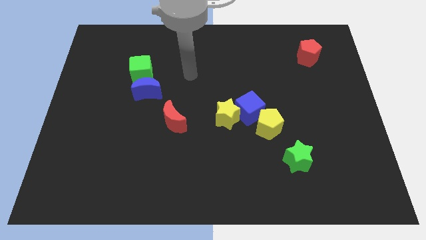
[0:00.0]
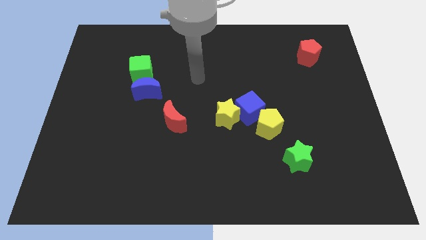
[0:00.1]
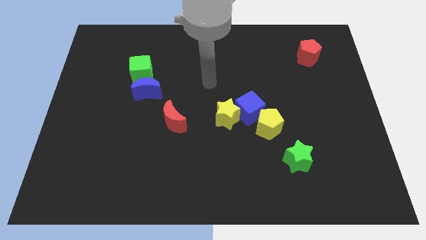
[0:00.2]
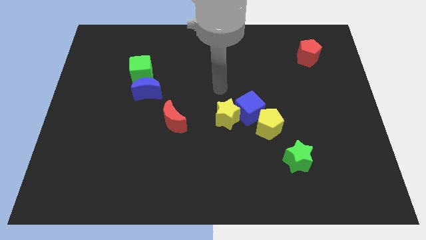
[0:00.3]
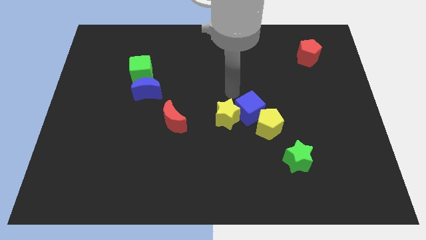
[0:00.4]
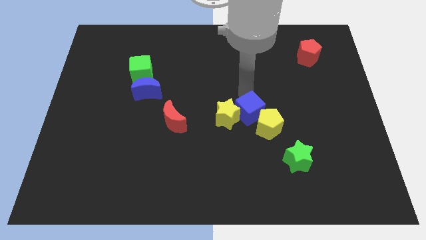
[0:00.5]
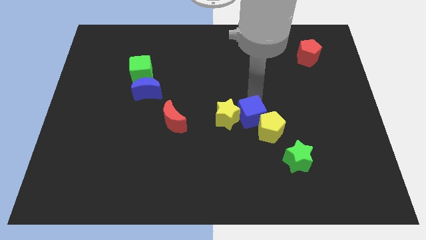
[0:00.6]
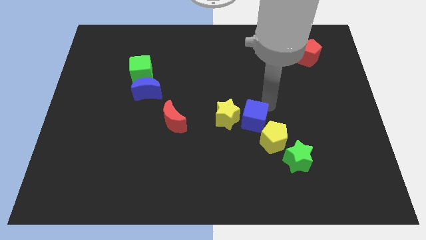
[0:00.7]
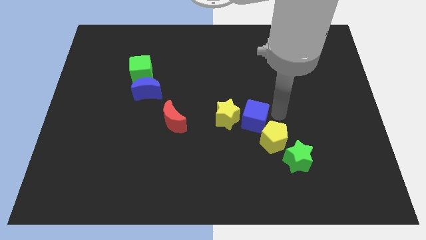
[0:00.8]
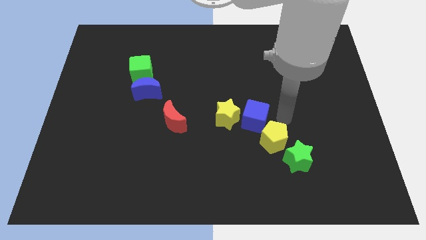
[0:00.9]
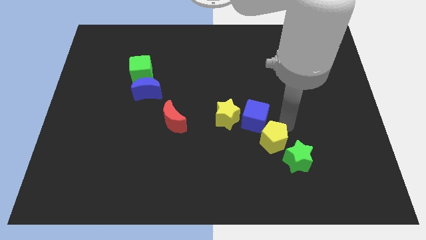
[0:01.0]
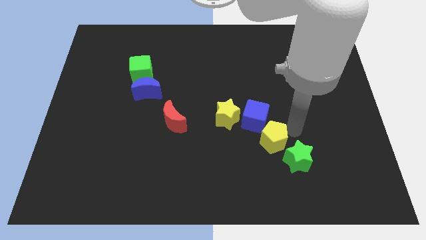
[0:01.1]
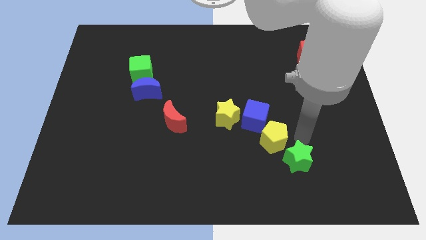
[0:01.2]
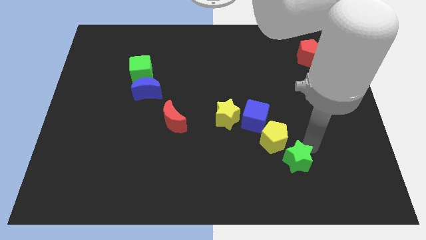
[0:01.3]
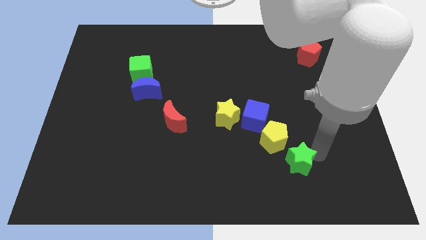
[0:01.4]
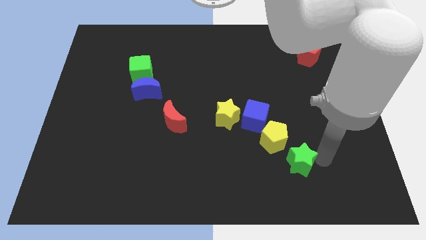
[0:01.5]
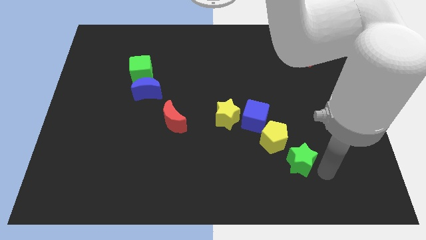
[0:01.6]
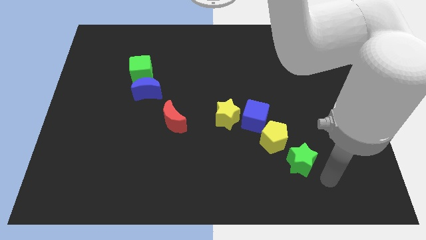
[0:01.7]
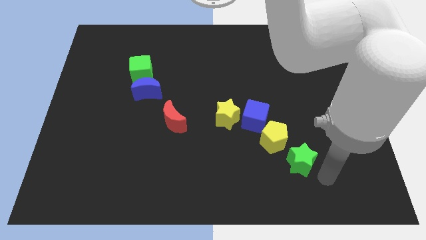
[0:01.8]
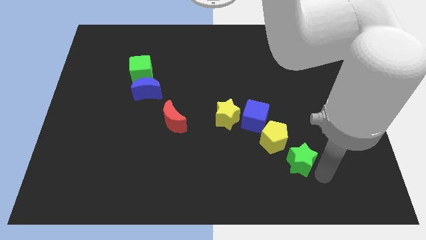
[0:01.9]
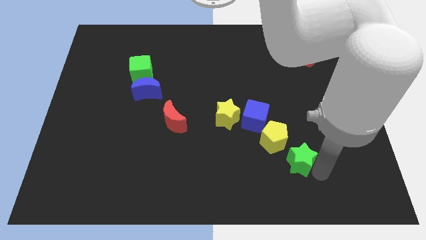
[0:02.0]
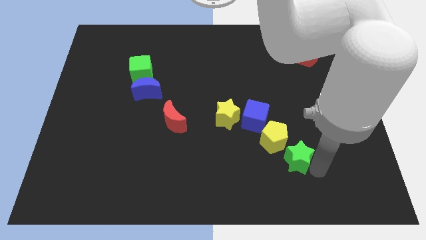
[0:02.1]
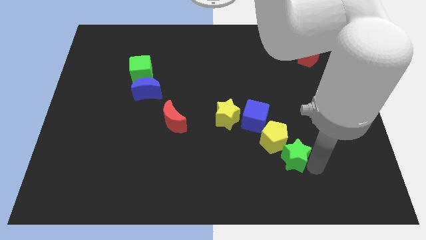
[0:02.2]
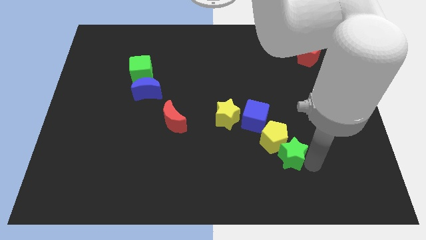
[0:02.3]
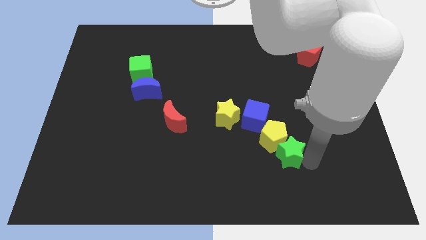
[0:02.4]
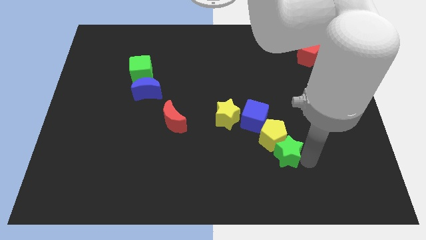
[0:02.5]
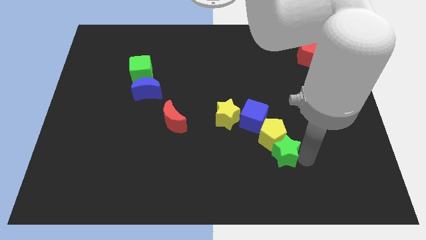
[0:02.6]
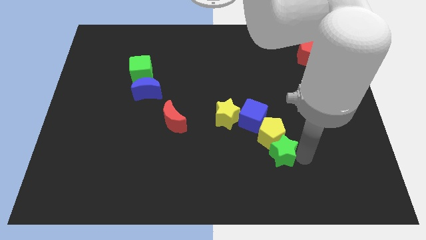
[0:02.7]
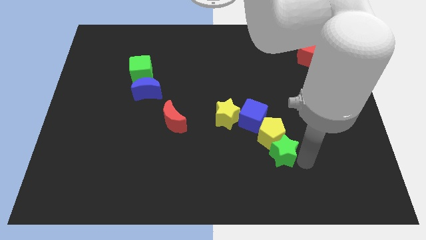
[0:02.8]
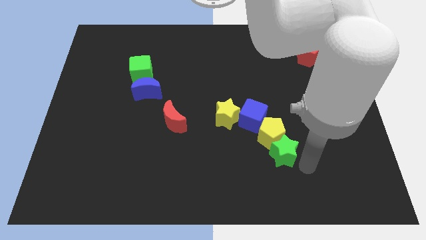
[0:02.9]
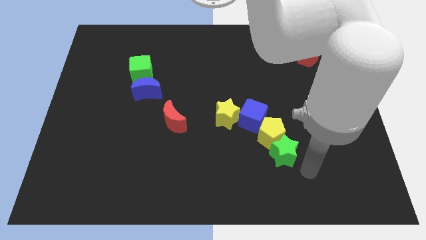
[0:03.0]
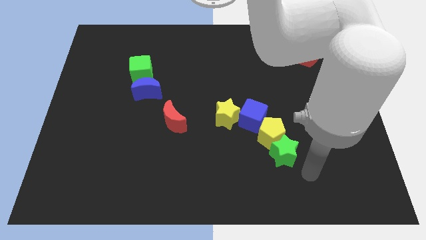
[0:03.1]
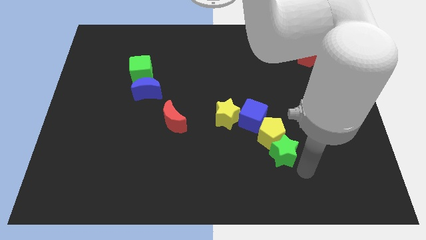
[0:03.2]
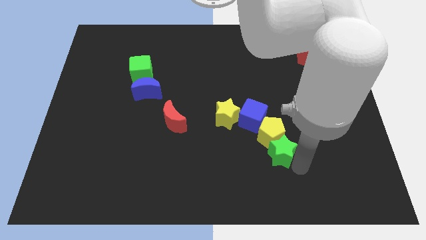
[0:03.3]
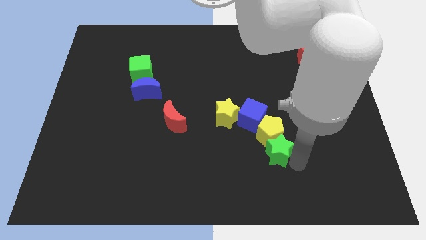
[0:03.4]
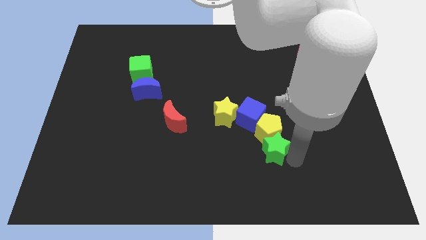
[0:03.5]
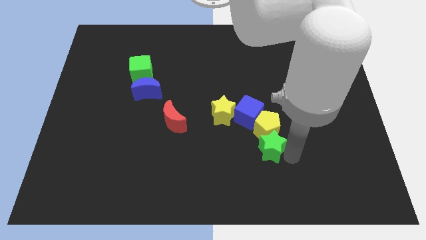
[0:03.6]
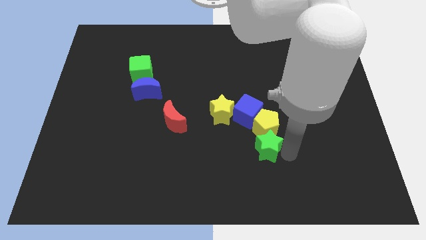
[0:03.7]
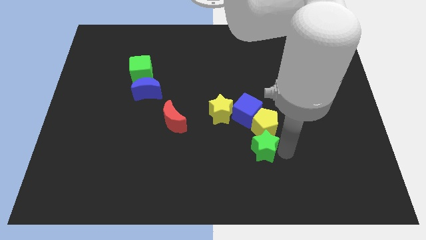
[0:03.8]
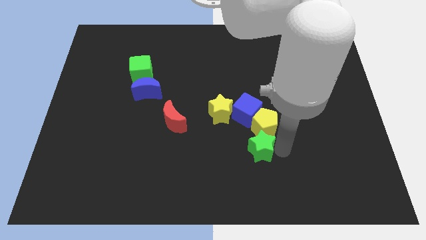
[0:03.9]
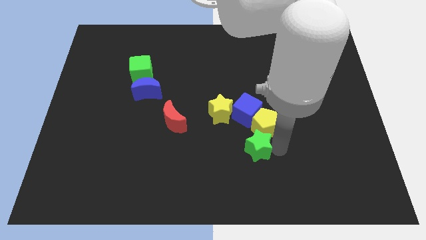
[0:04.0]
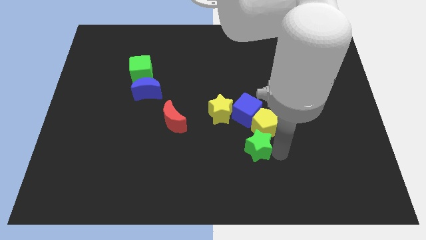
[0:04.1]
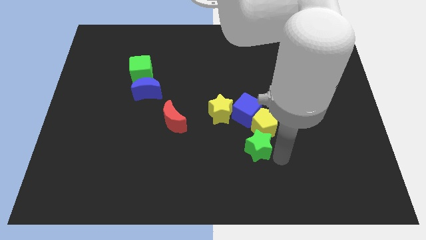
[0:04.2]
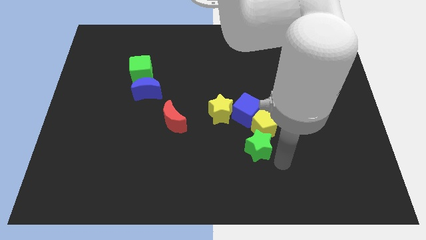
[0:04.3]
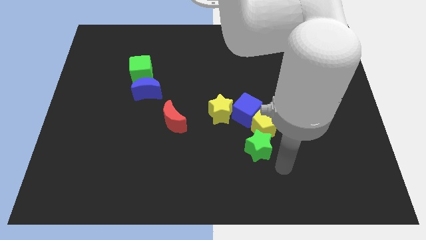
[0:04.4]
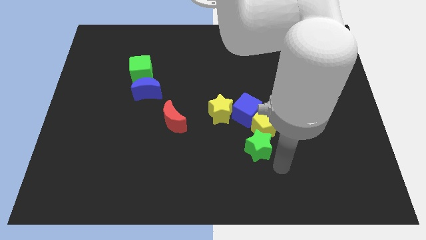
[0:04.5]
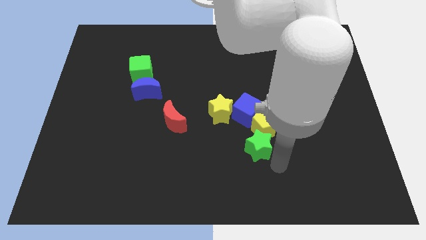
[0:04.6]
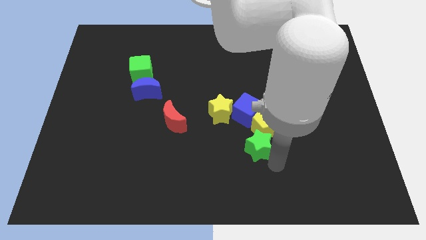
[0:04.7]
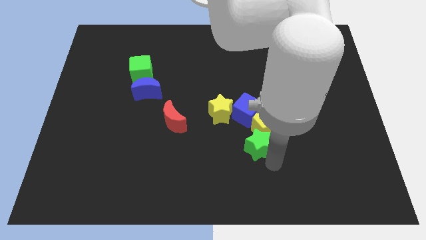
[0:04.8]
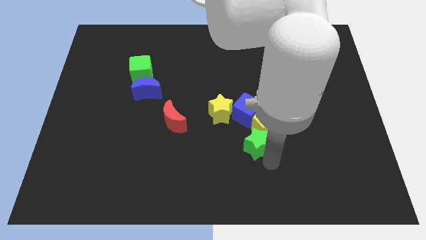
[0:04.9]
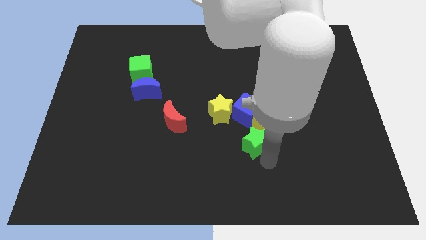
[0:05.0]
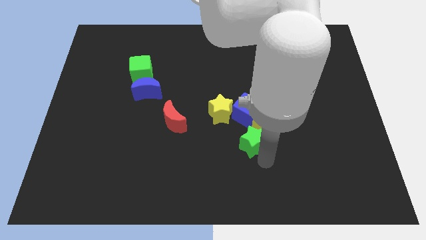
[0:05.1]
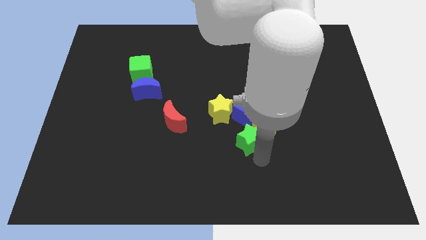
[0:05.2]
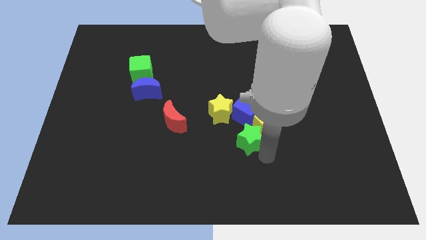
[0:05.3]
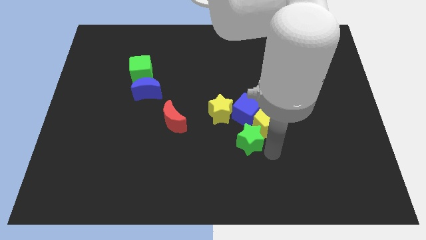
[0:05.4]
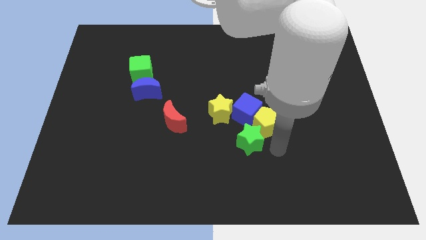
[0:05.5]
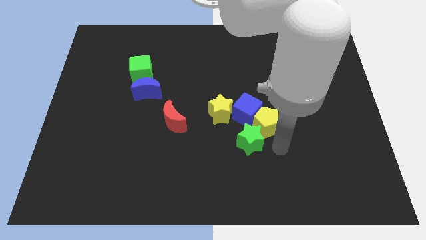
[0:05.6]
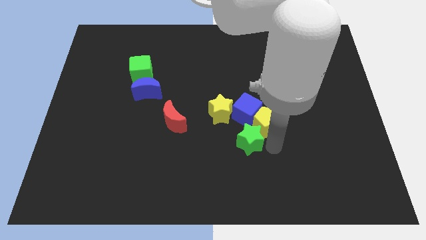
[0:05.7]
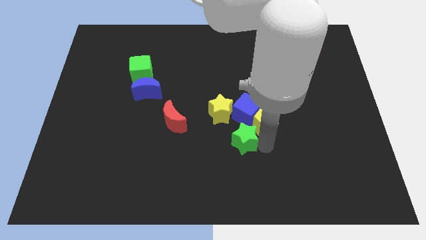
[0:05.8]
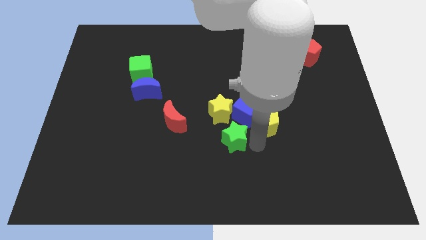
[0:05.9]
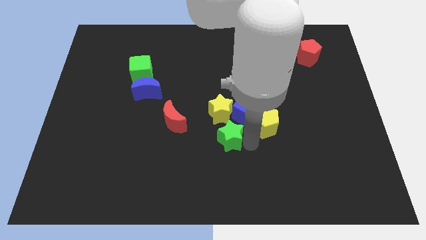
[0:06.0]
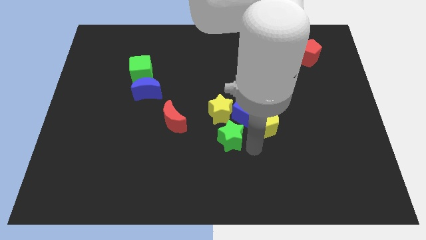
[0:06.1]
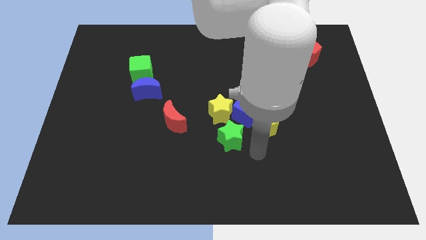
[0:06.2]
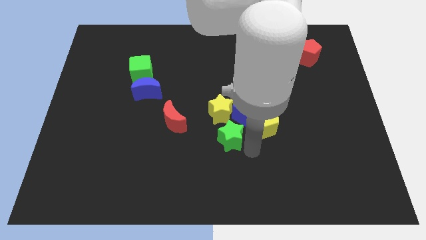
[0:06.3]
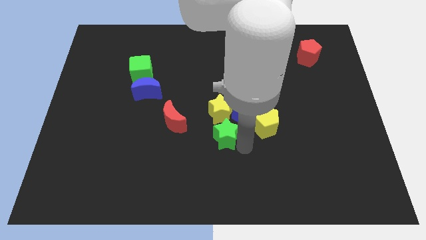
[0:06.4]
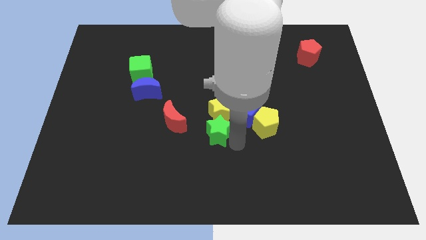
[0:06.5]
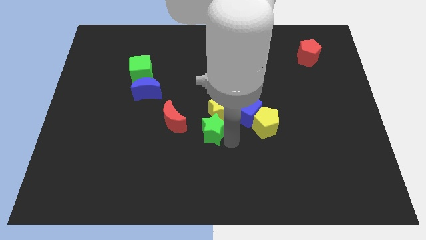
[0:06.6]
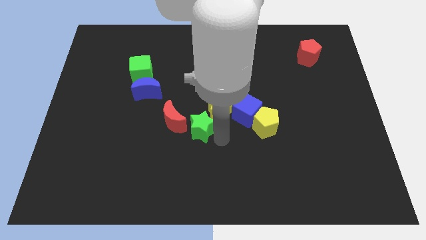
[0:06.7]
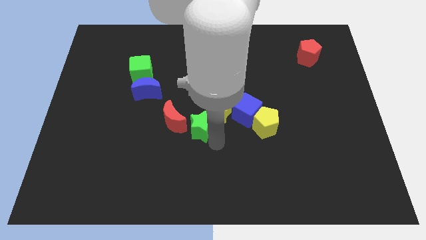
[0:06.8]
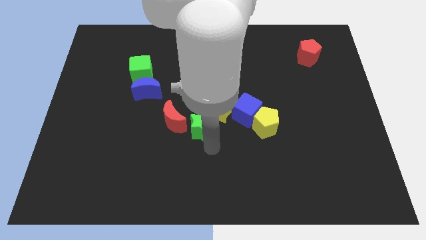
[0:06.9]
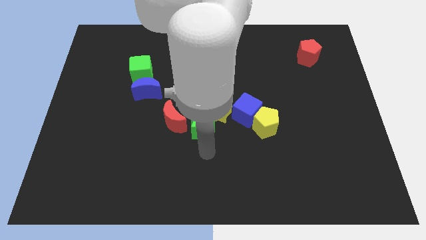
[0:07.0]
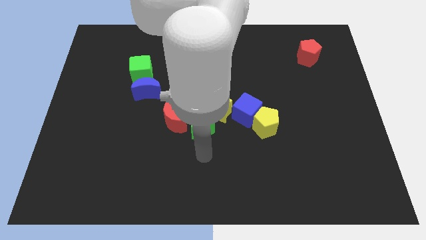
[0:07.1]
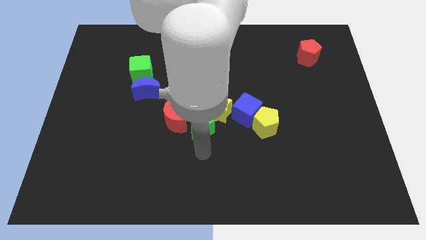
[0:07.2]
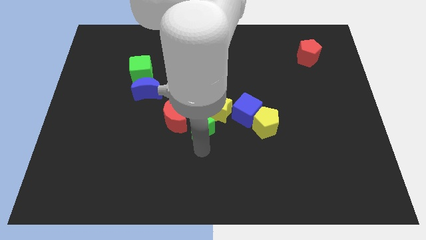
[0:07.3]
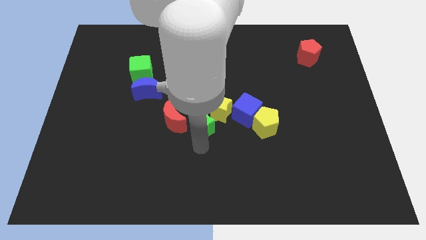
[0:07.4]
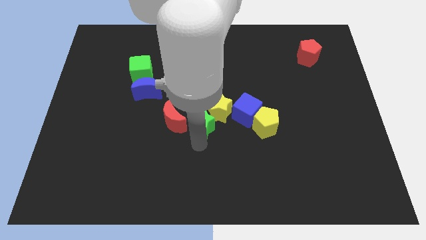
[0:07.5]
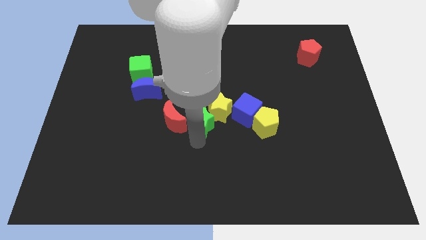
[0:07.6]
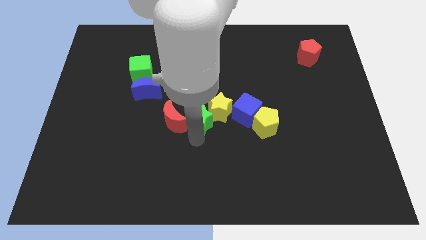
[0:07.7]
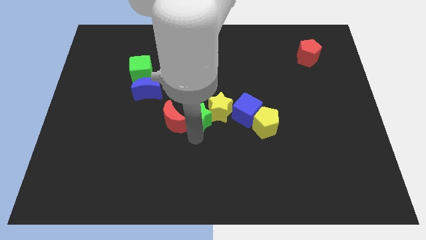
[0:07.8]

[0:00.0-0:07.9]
push the green star up and then to the left

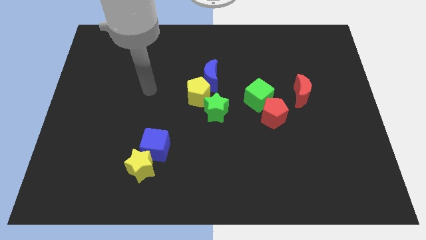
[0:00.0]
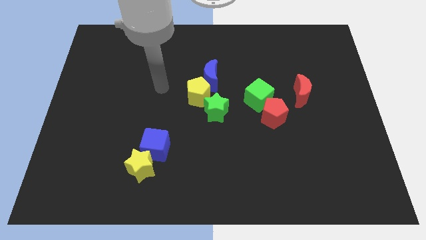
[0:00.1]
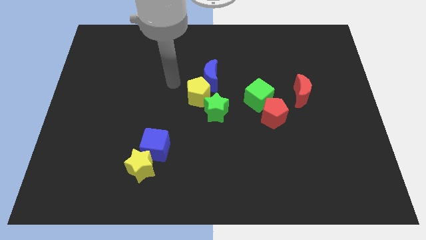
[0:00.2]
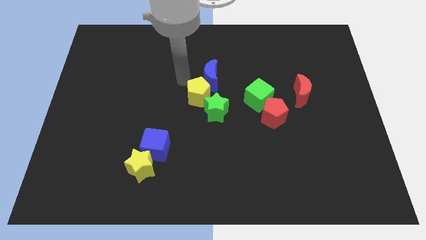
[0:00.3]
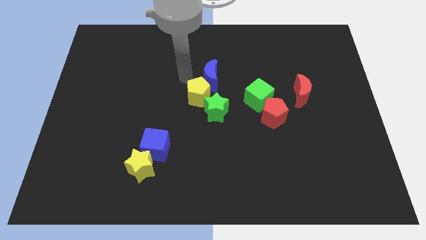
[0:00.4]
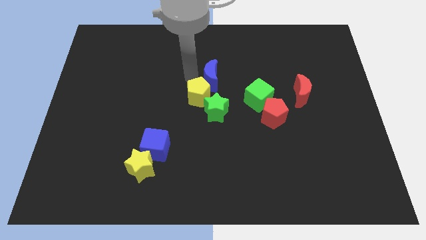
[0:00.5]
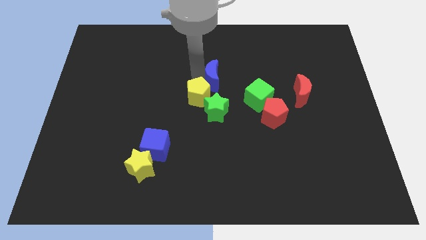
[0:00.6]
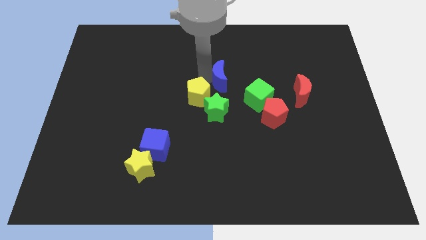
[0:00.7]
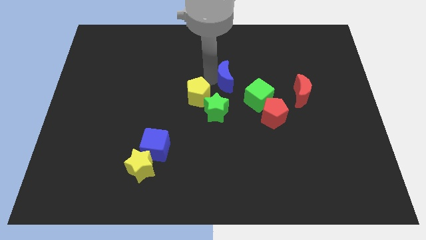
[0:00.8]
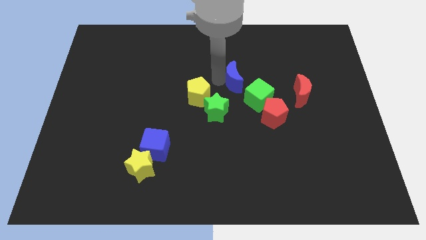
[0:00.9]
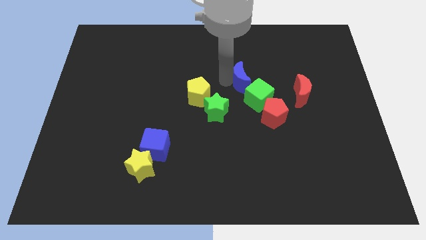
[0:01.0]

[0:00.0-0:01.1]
move the blue moon somewhat right
